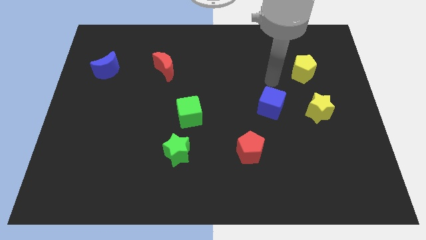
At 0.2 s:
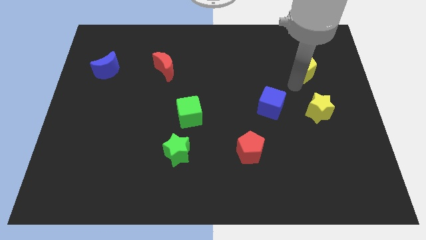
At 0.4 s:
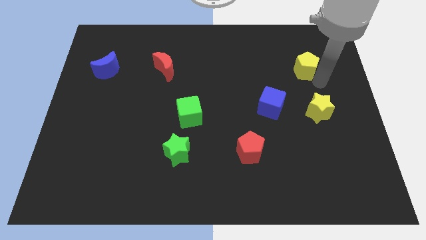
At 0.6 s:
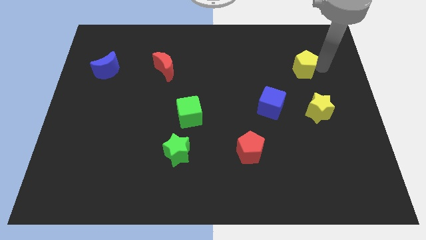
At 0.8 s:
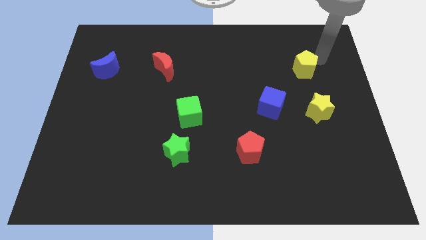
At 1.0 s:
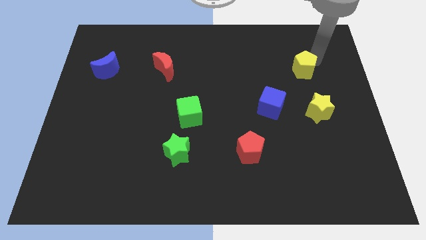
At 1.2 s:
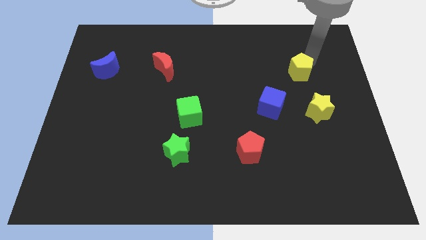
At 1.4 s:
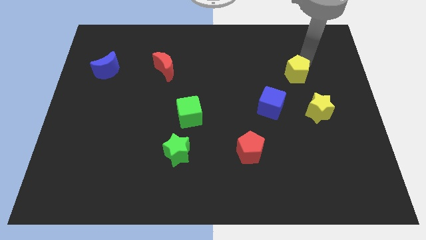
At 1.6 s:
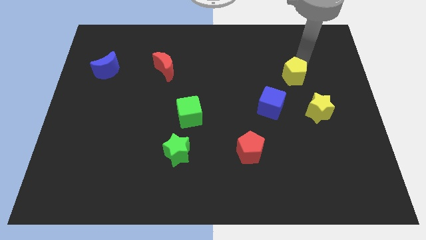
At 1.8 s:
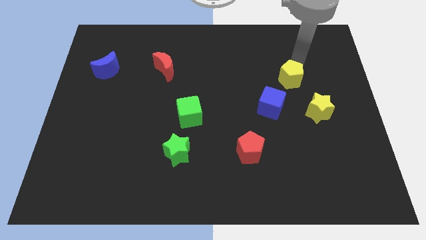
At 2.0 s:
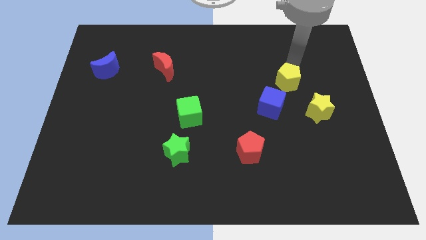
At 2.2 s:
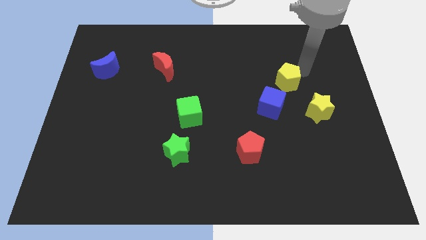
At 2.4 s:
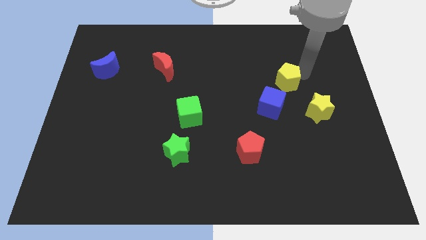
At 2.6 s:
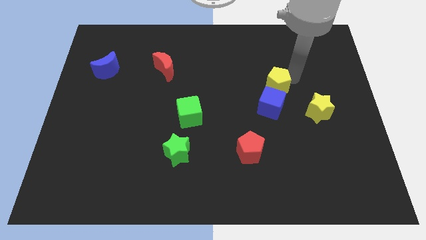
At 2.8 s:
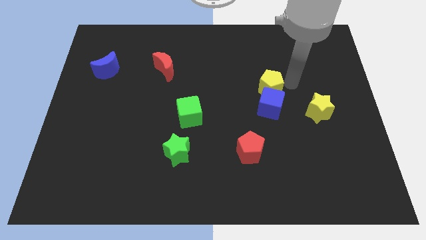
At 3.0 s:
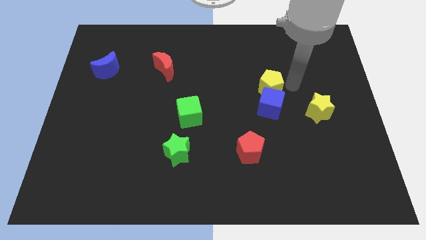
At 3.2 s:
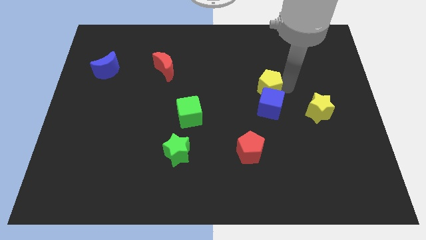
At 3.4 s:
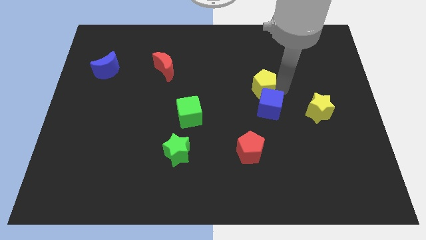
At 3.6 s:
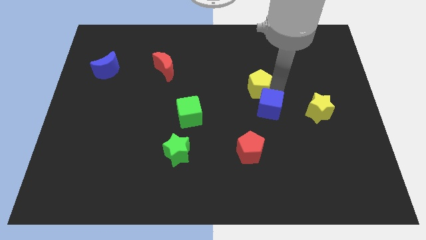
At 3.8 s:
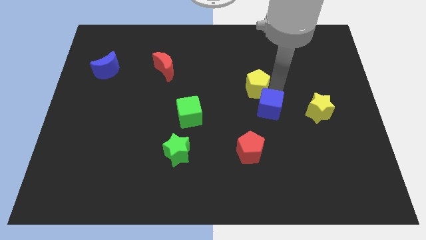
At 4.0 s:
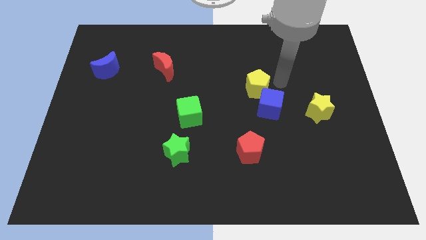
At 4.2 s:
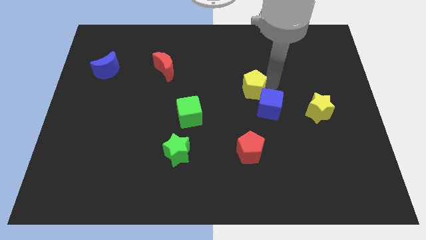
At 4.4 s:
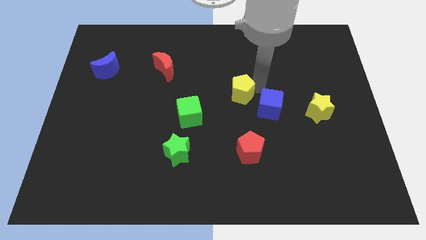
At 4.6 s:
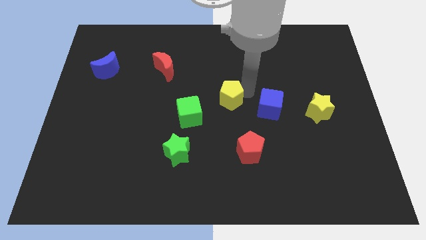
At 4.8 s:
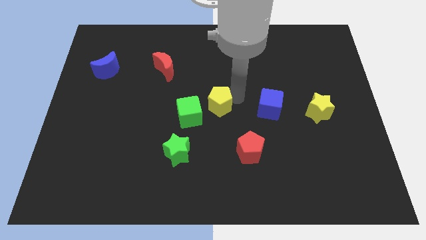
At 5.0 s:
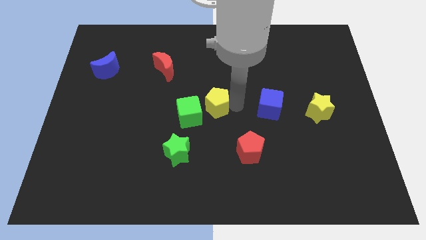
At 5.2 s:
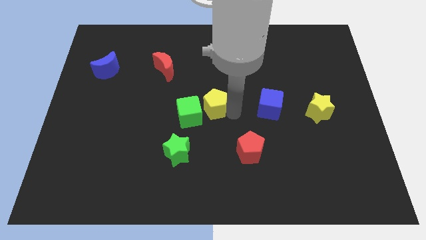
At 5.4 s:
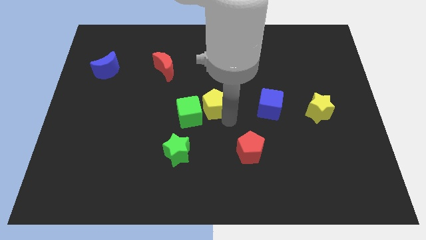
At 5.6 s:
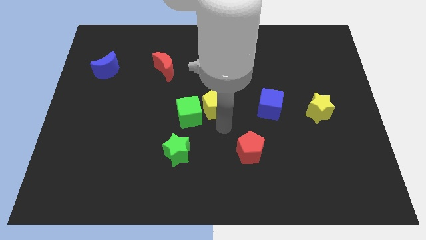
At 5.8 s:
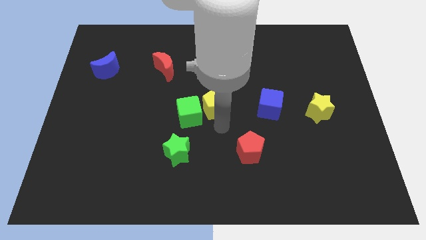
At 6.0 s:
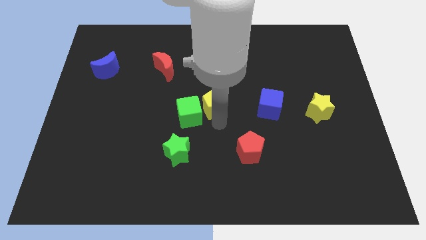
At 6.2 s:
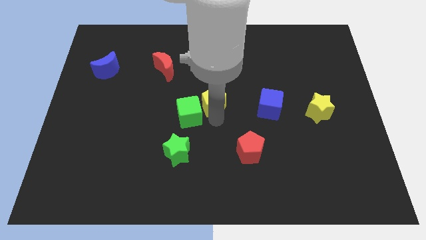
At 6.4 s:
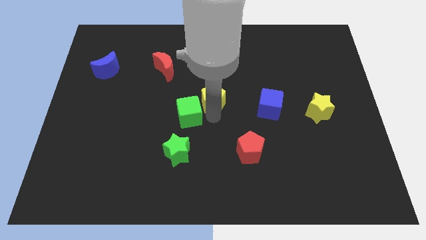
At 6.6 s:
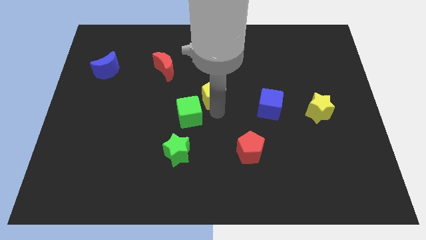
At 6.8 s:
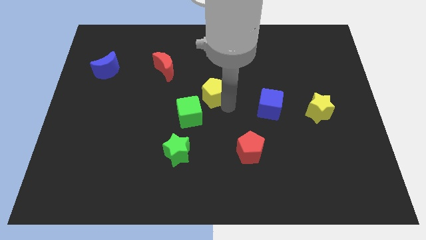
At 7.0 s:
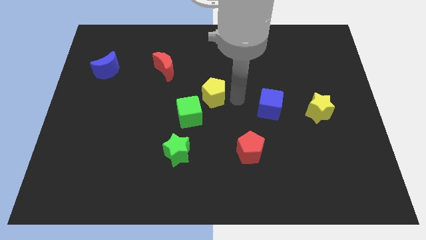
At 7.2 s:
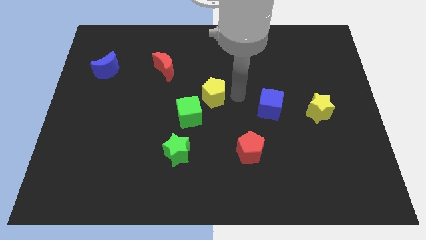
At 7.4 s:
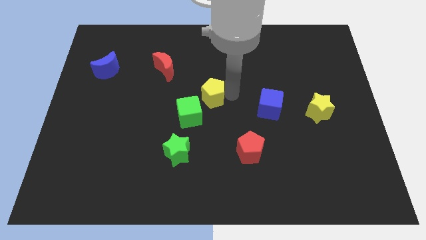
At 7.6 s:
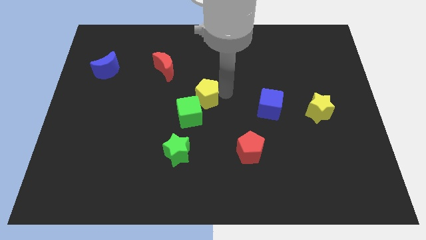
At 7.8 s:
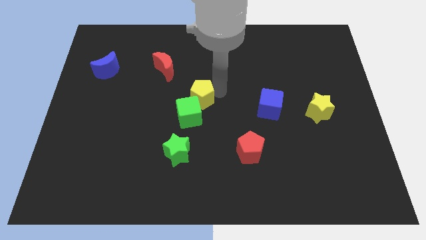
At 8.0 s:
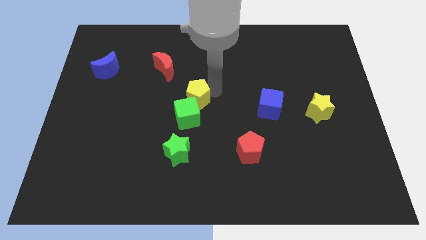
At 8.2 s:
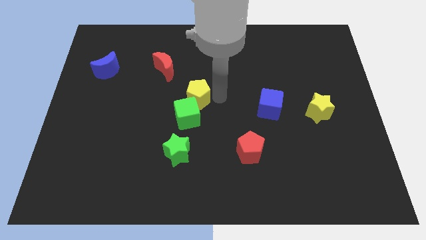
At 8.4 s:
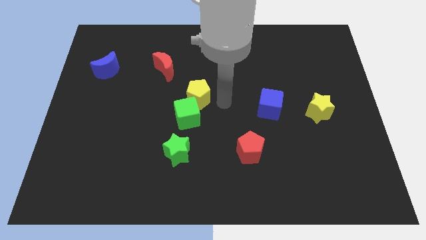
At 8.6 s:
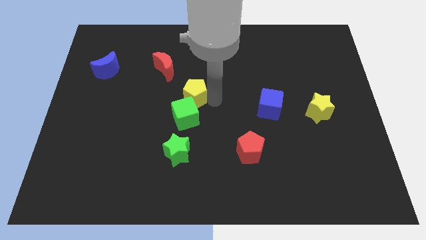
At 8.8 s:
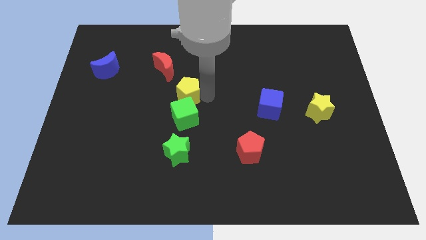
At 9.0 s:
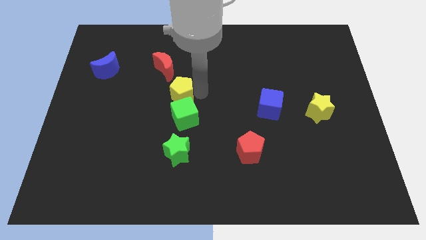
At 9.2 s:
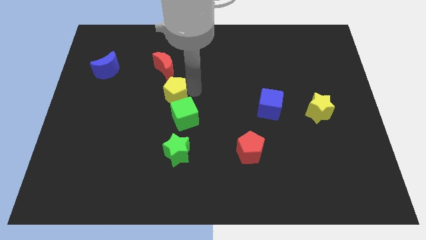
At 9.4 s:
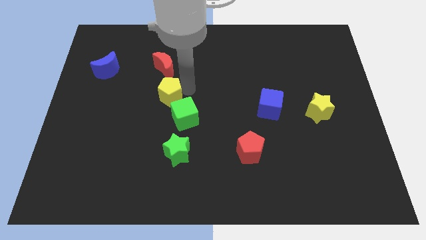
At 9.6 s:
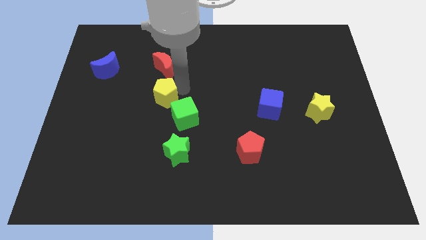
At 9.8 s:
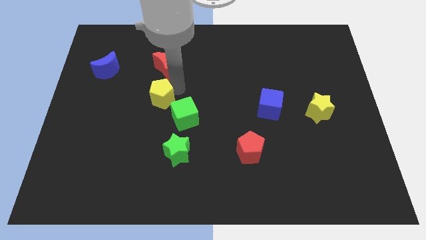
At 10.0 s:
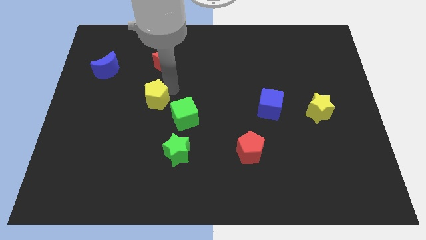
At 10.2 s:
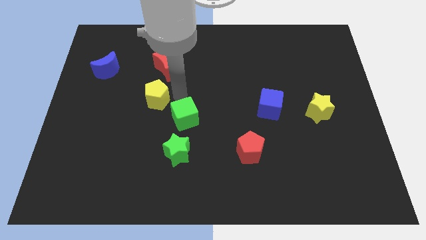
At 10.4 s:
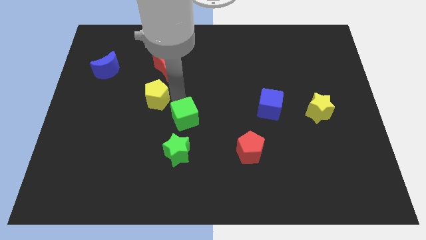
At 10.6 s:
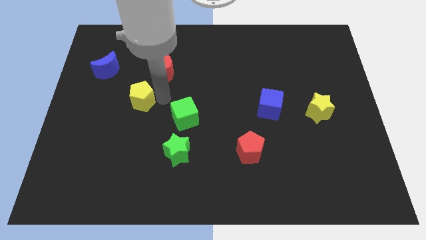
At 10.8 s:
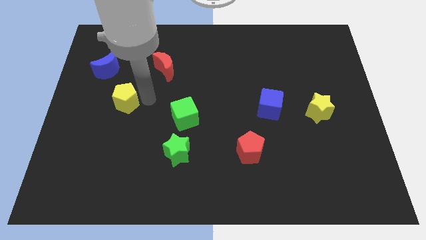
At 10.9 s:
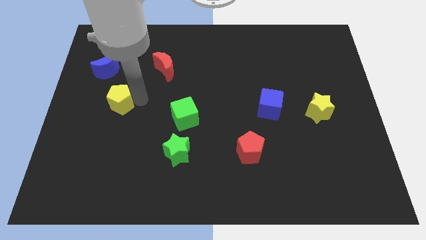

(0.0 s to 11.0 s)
move the yellow pentagon below the blue moon

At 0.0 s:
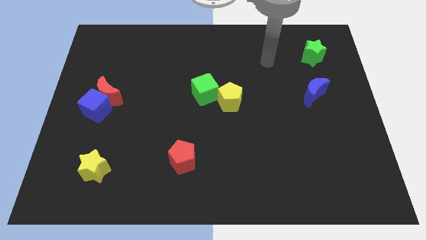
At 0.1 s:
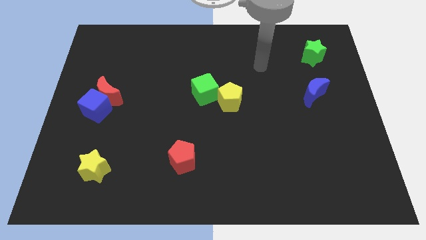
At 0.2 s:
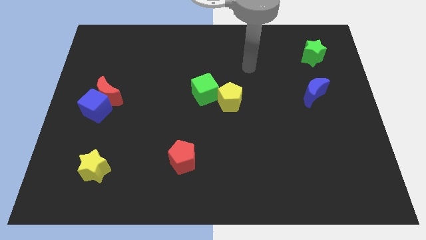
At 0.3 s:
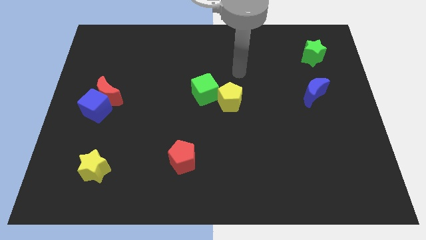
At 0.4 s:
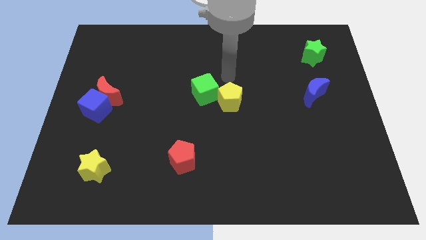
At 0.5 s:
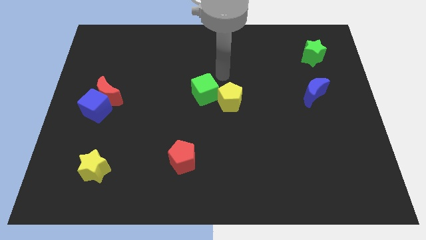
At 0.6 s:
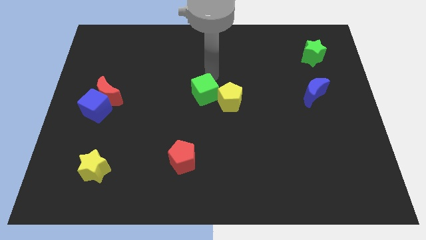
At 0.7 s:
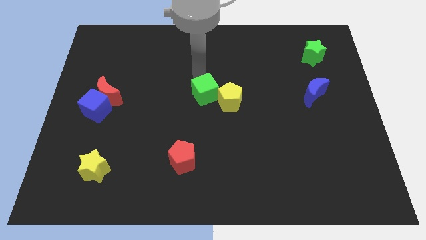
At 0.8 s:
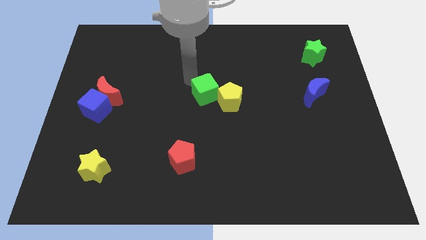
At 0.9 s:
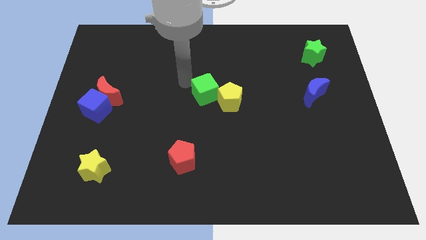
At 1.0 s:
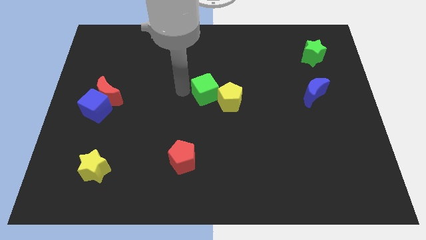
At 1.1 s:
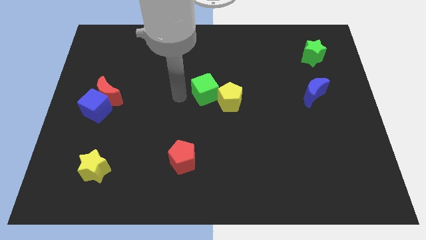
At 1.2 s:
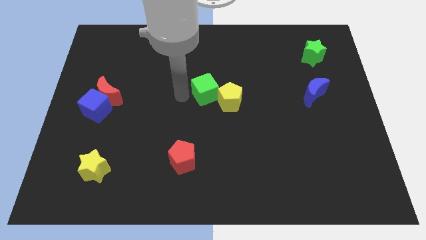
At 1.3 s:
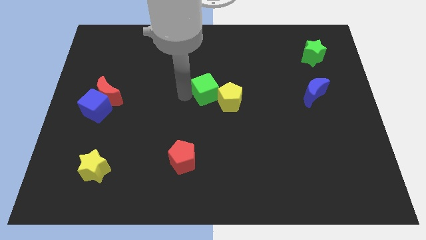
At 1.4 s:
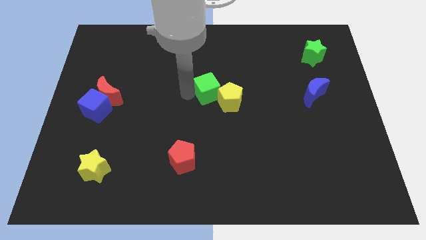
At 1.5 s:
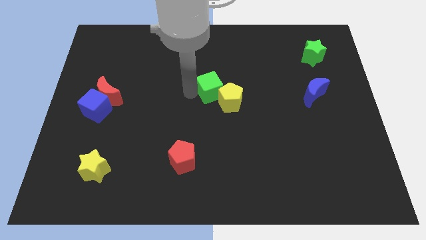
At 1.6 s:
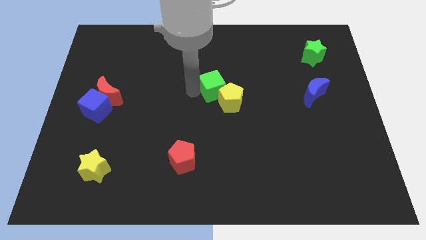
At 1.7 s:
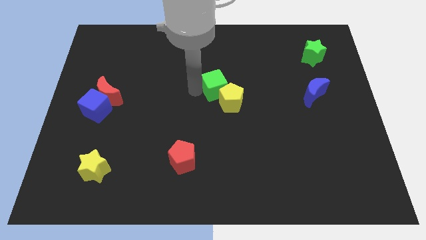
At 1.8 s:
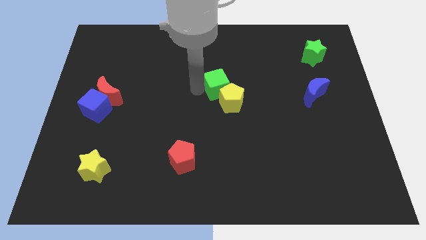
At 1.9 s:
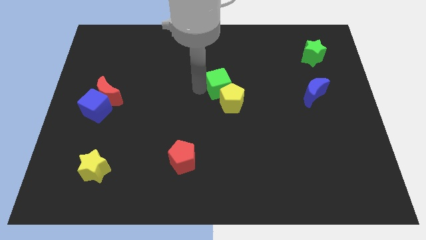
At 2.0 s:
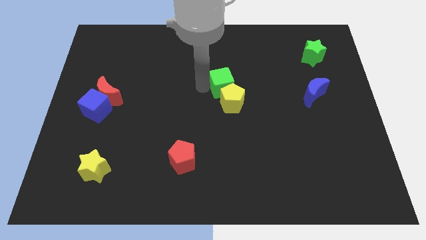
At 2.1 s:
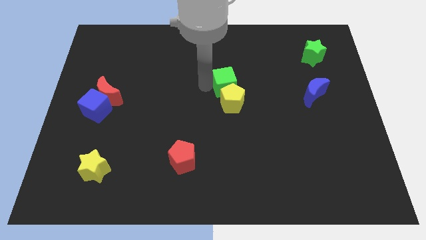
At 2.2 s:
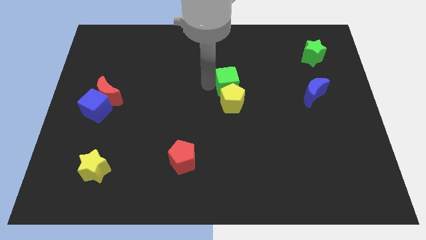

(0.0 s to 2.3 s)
put the green cube to the top right of the yellow pentagon
